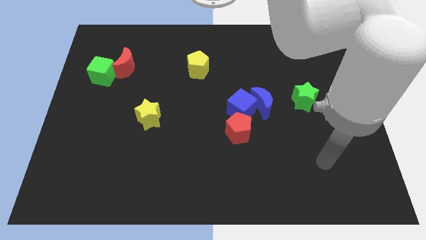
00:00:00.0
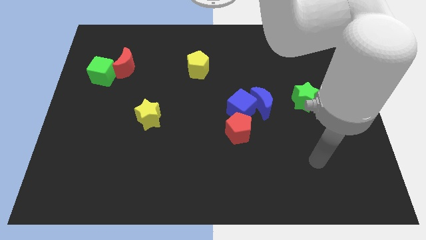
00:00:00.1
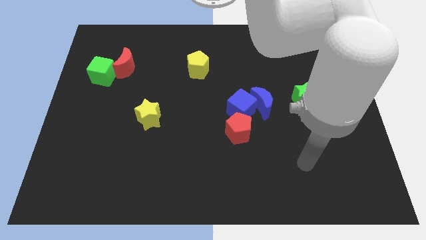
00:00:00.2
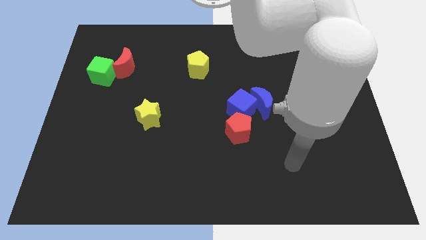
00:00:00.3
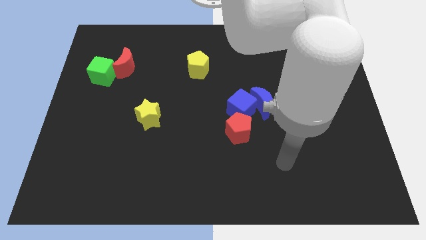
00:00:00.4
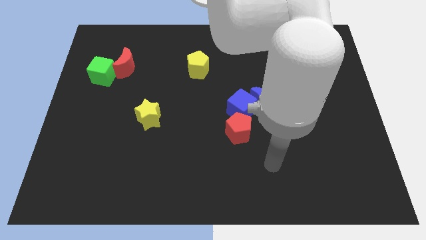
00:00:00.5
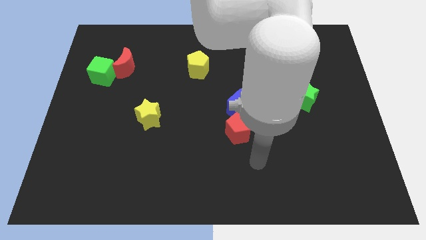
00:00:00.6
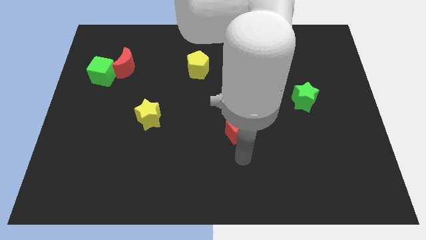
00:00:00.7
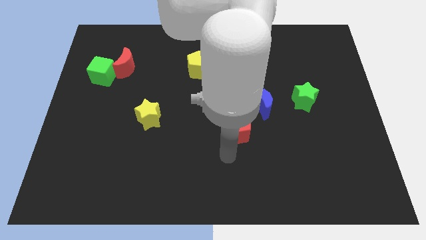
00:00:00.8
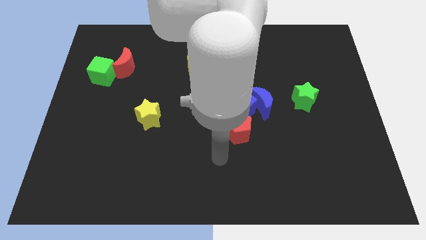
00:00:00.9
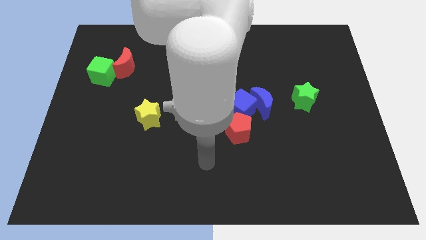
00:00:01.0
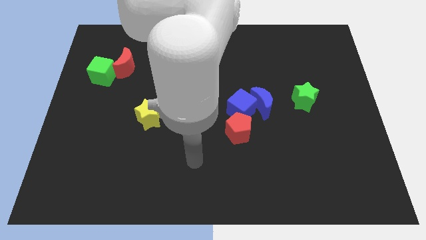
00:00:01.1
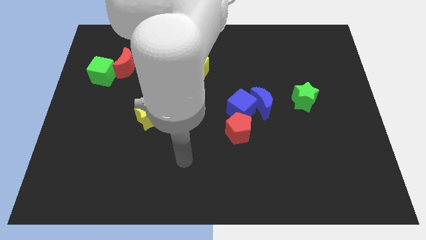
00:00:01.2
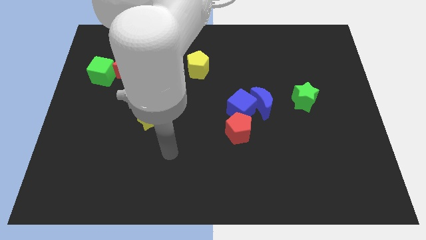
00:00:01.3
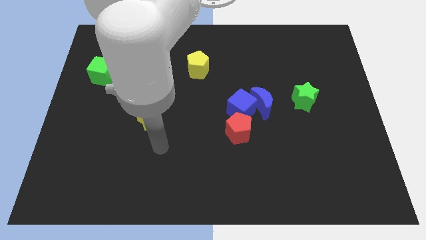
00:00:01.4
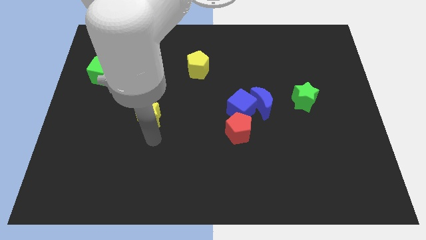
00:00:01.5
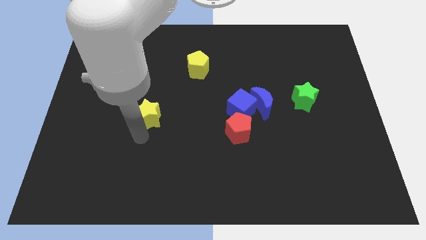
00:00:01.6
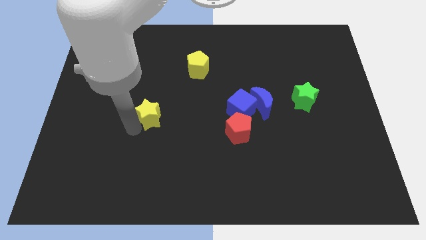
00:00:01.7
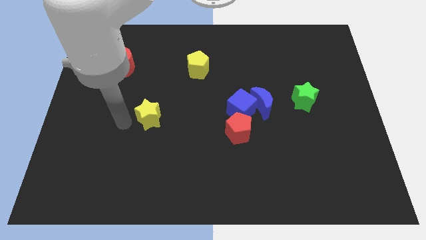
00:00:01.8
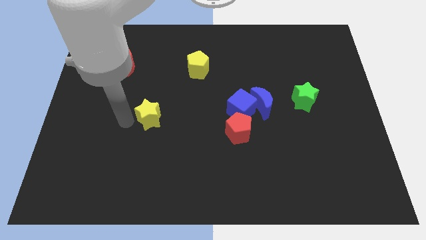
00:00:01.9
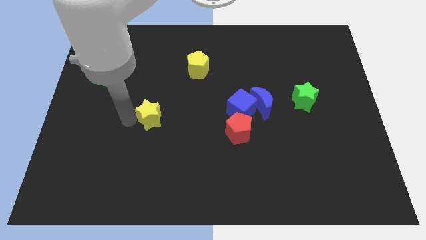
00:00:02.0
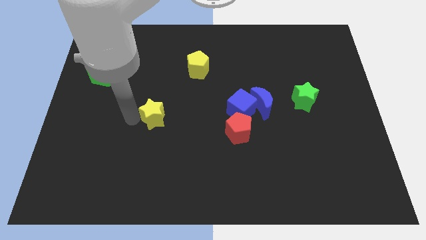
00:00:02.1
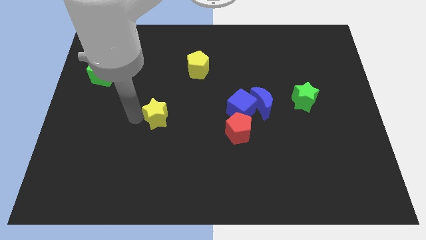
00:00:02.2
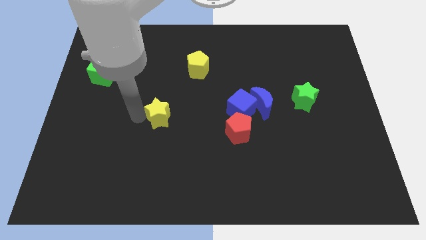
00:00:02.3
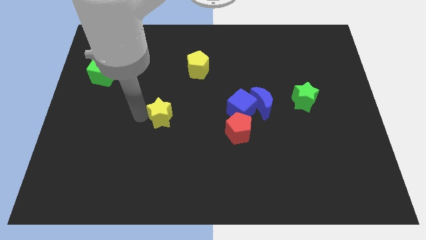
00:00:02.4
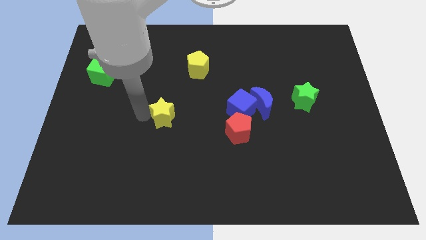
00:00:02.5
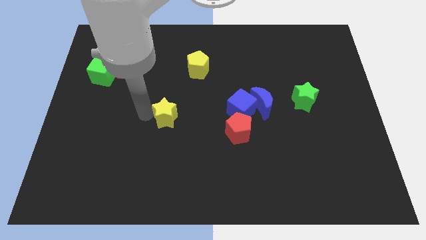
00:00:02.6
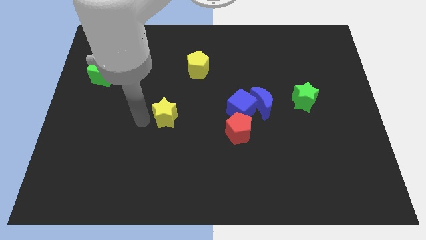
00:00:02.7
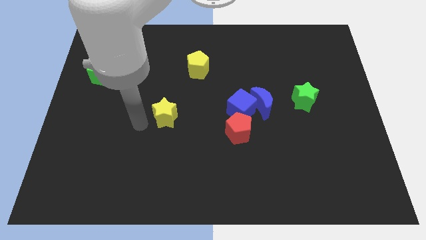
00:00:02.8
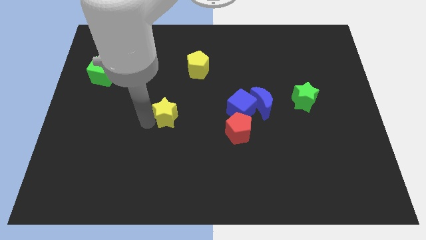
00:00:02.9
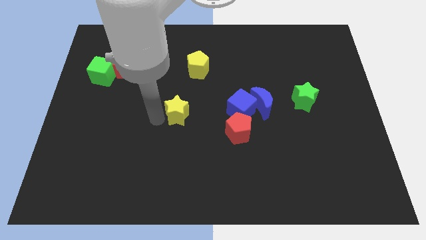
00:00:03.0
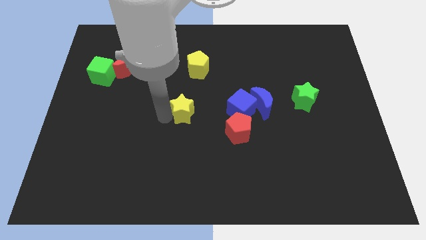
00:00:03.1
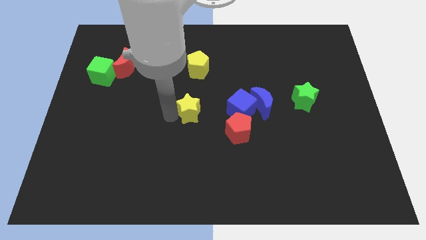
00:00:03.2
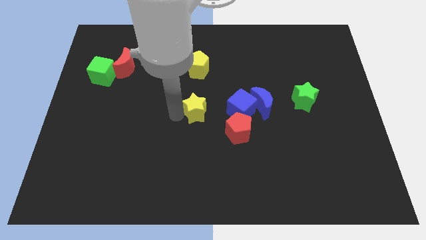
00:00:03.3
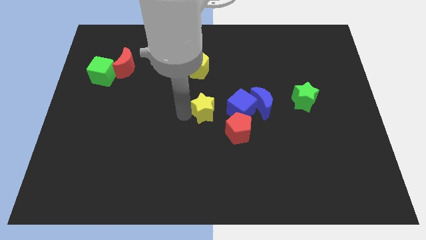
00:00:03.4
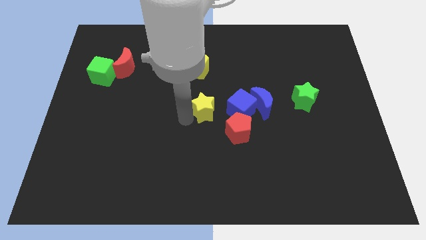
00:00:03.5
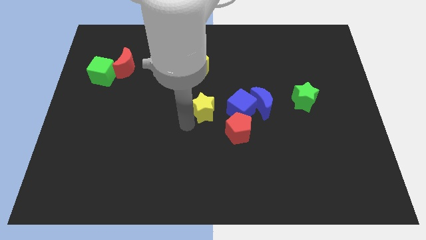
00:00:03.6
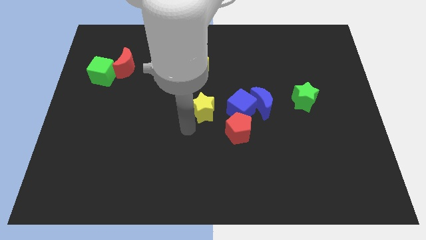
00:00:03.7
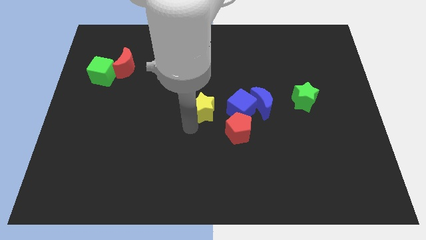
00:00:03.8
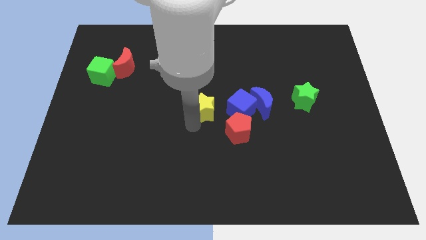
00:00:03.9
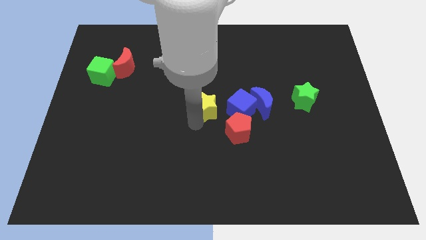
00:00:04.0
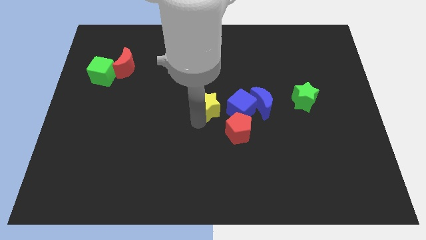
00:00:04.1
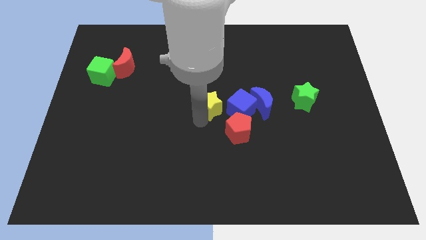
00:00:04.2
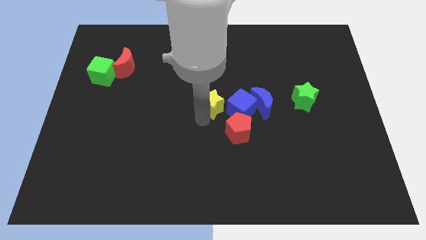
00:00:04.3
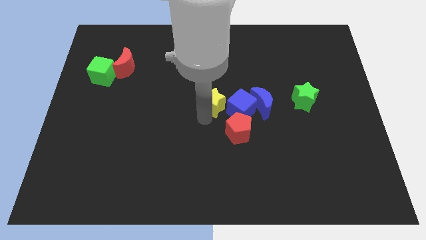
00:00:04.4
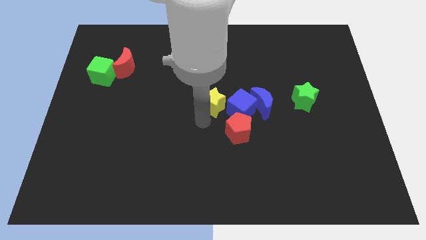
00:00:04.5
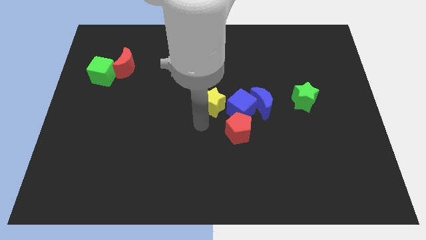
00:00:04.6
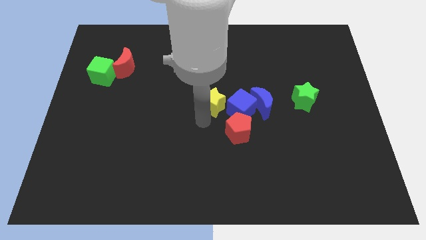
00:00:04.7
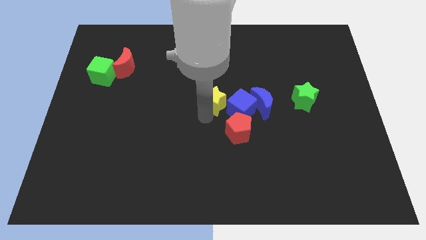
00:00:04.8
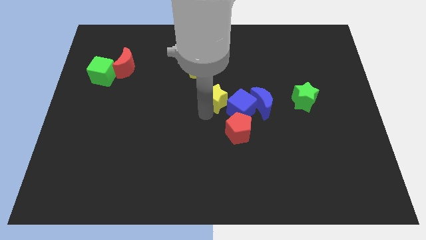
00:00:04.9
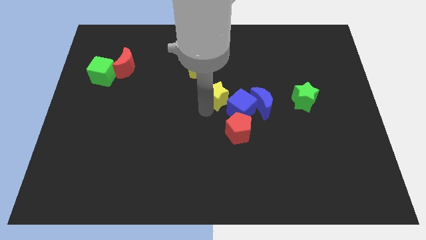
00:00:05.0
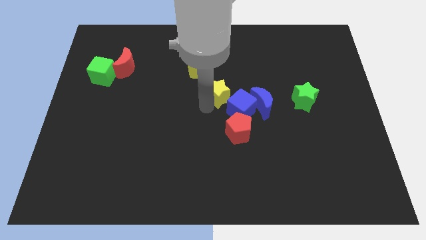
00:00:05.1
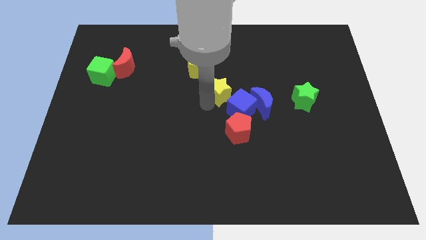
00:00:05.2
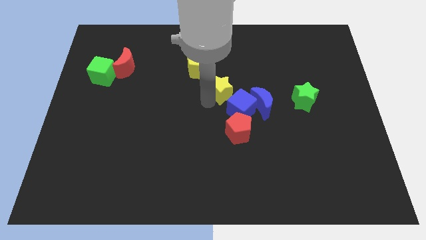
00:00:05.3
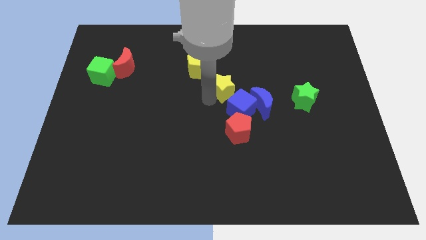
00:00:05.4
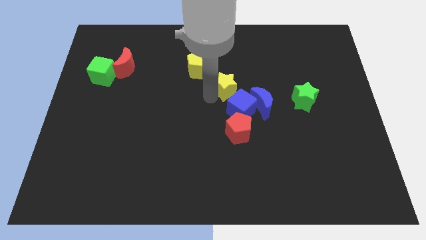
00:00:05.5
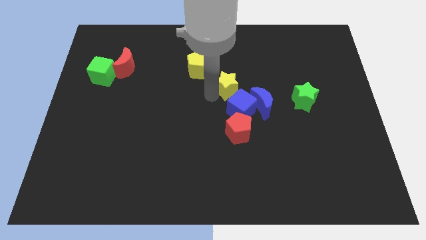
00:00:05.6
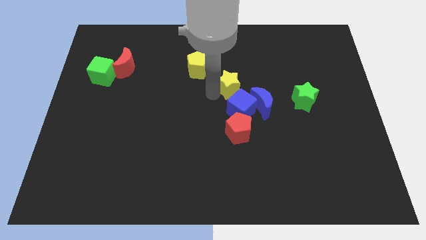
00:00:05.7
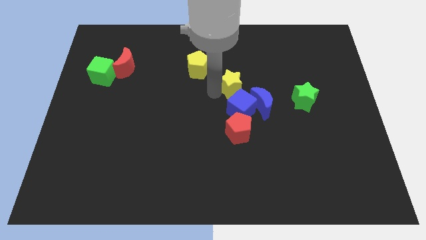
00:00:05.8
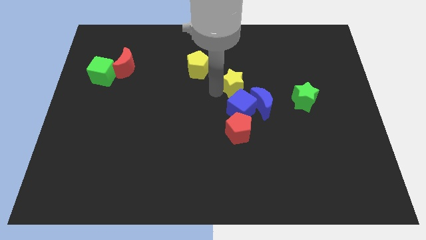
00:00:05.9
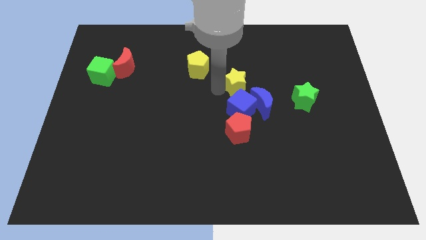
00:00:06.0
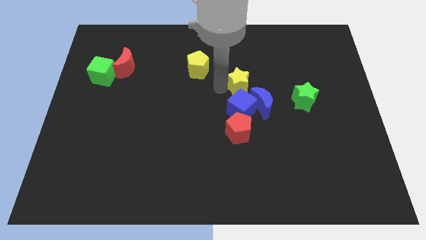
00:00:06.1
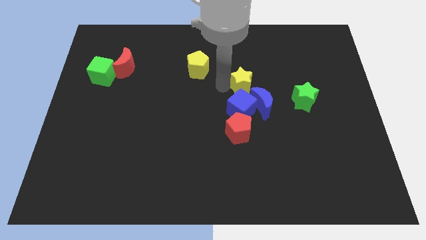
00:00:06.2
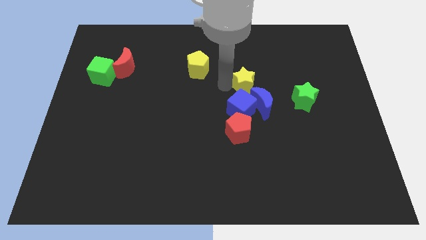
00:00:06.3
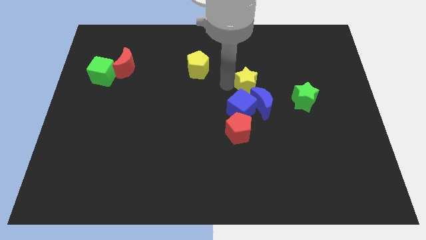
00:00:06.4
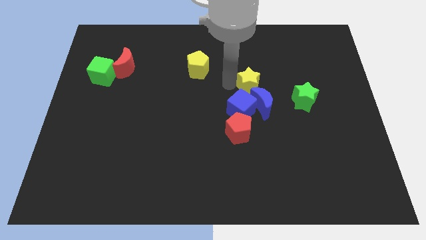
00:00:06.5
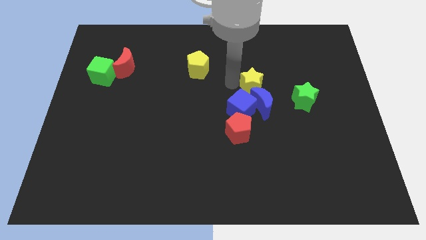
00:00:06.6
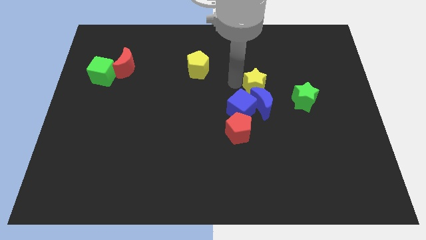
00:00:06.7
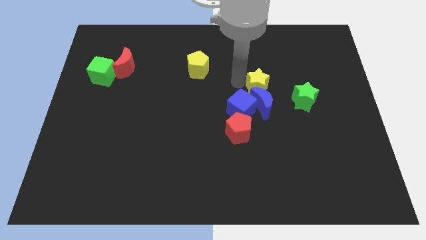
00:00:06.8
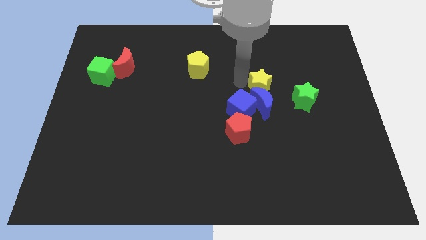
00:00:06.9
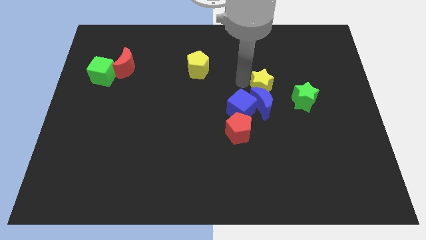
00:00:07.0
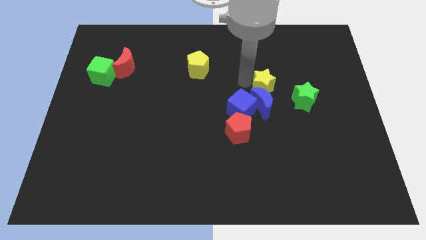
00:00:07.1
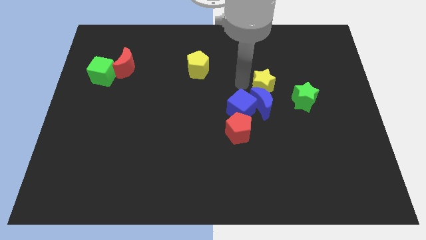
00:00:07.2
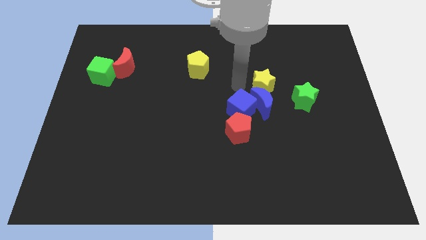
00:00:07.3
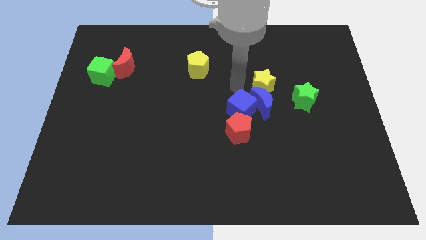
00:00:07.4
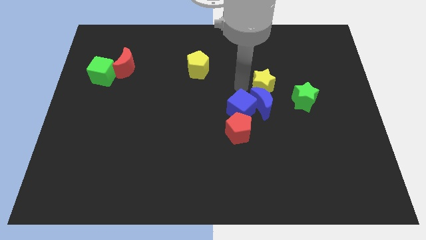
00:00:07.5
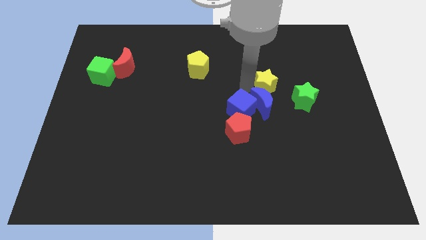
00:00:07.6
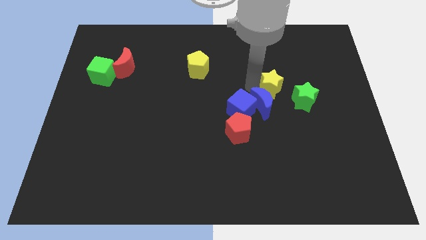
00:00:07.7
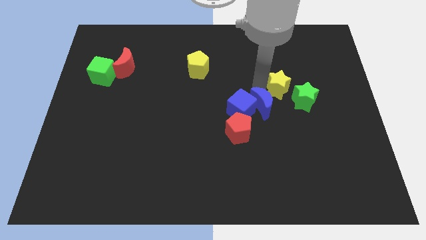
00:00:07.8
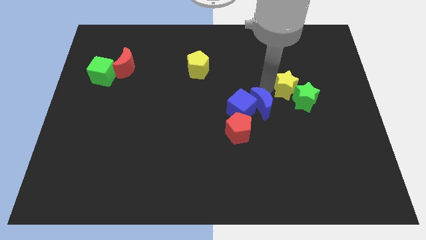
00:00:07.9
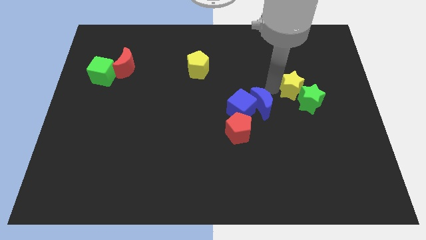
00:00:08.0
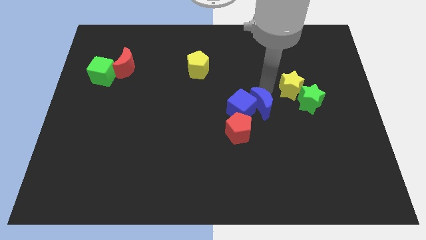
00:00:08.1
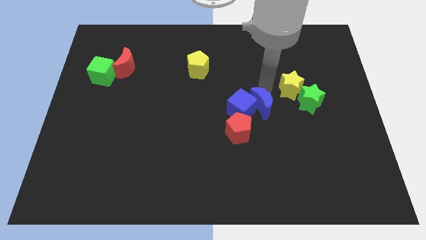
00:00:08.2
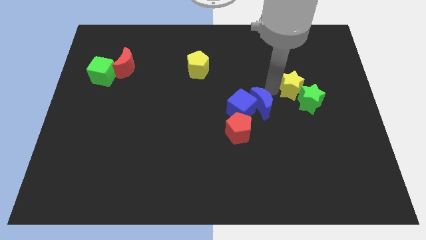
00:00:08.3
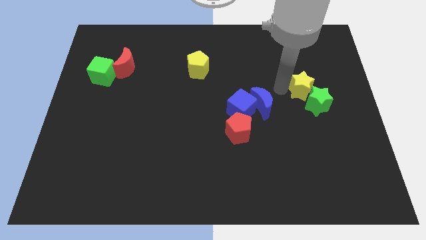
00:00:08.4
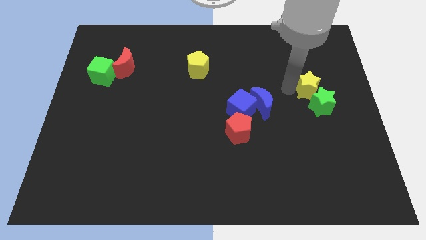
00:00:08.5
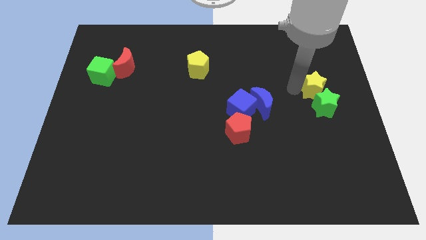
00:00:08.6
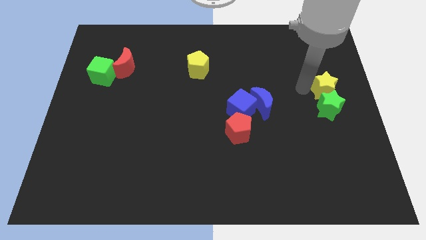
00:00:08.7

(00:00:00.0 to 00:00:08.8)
move the yellow star to the right side
